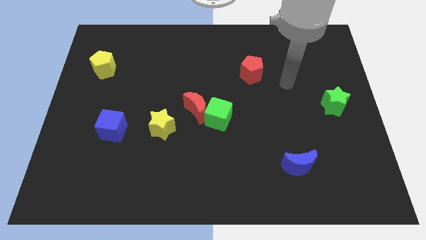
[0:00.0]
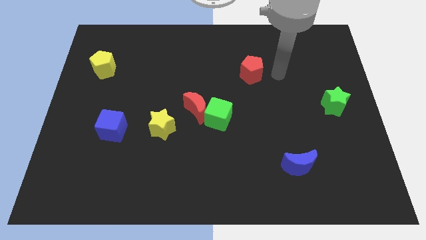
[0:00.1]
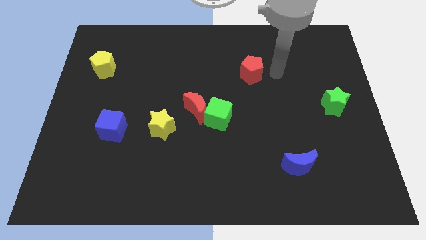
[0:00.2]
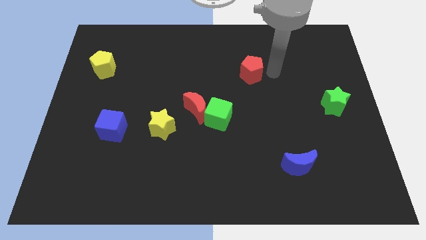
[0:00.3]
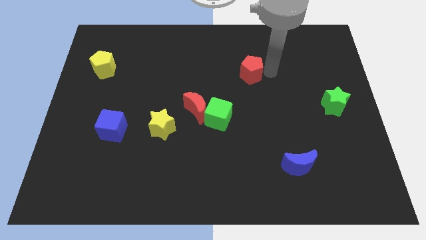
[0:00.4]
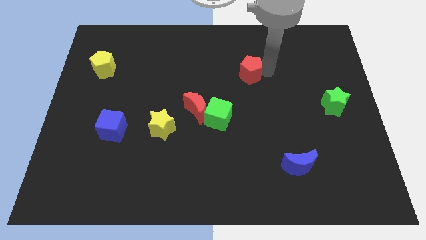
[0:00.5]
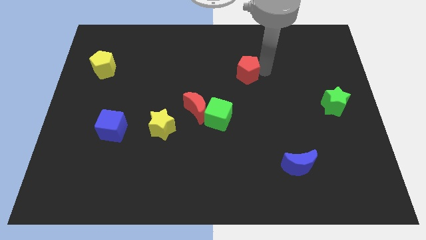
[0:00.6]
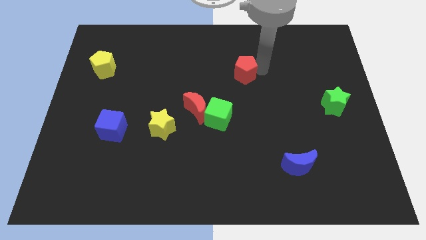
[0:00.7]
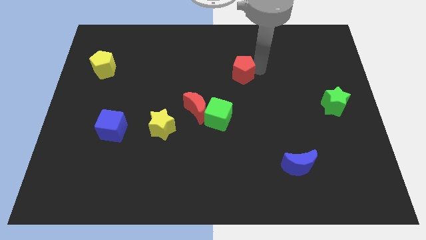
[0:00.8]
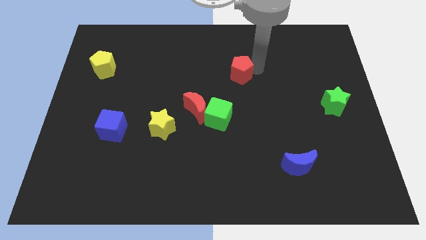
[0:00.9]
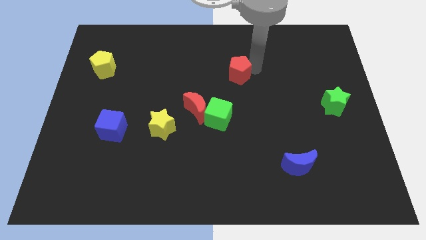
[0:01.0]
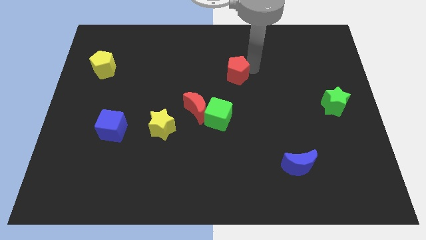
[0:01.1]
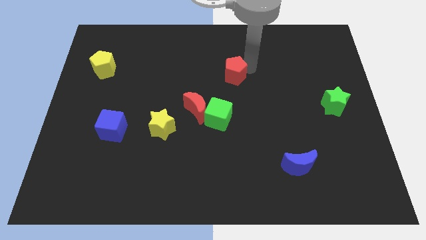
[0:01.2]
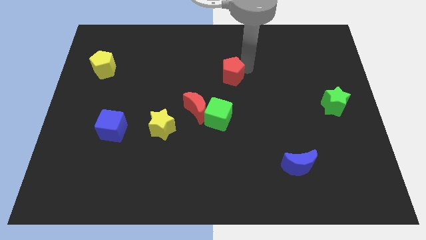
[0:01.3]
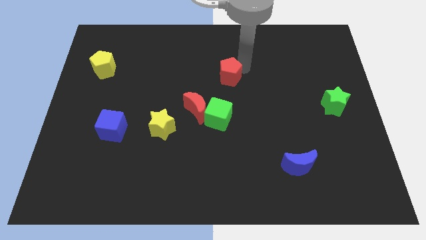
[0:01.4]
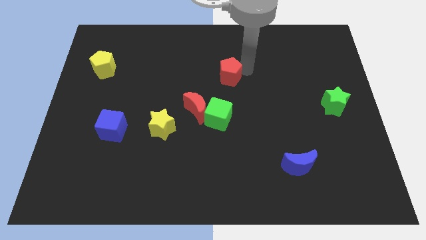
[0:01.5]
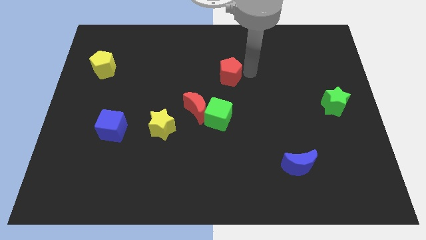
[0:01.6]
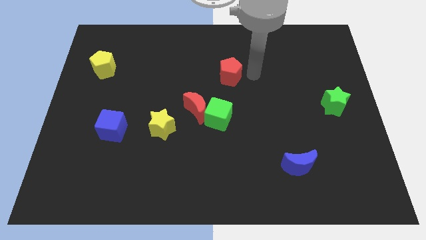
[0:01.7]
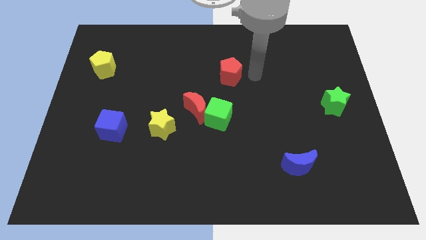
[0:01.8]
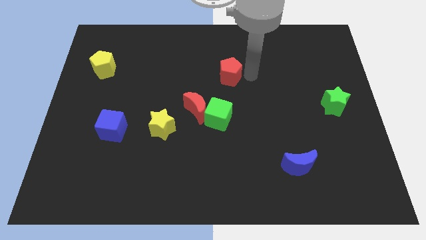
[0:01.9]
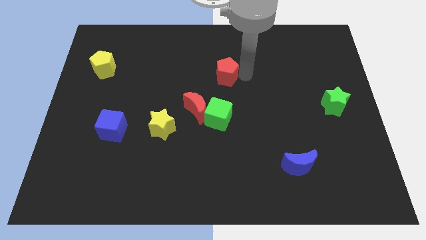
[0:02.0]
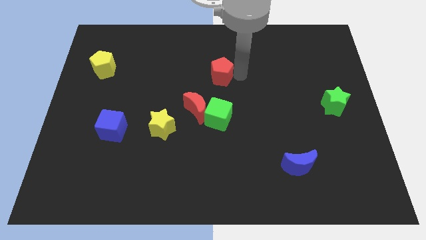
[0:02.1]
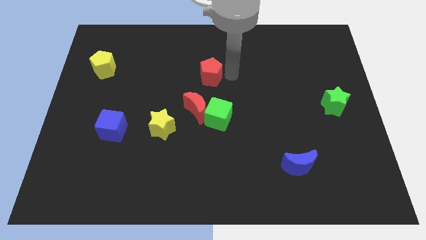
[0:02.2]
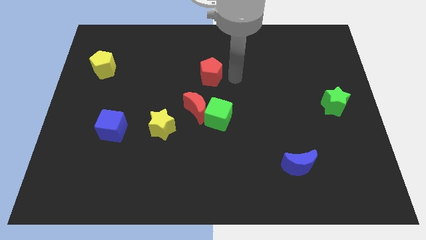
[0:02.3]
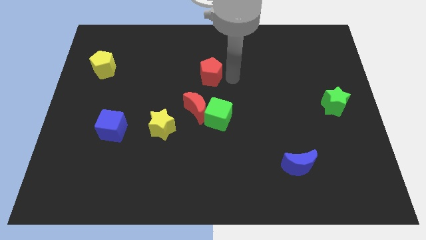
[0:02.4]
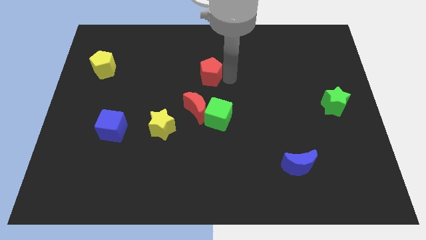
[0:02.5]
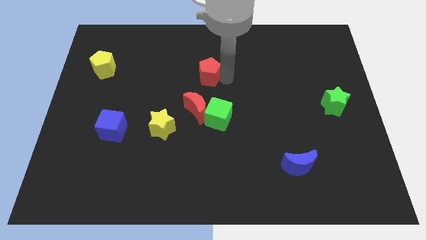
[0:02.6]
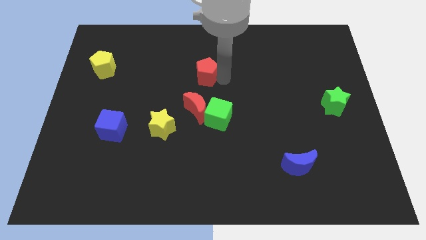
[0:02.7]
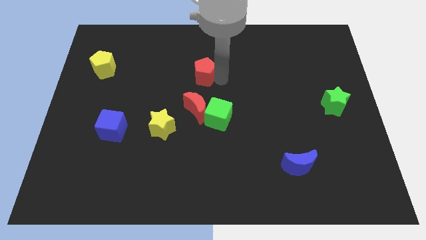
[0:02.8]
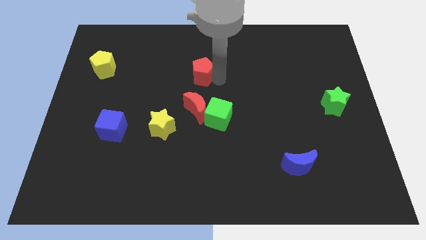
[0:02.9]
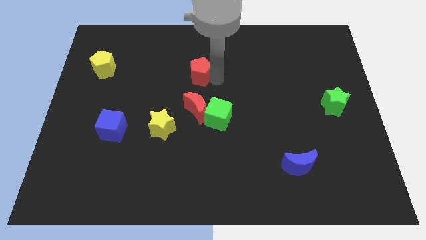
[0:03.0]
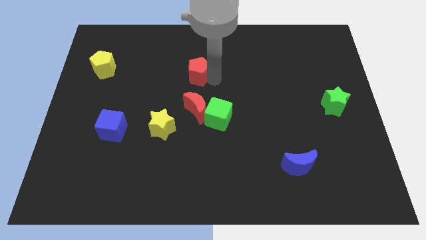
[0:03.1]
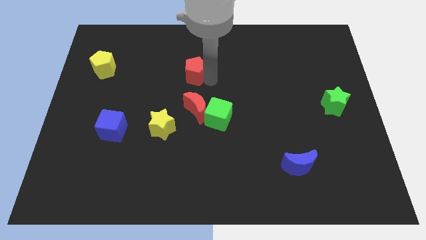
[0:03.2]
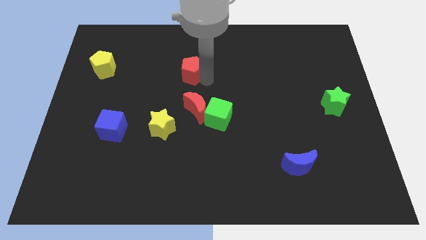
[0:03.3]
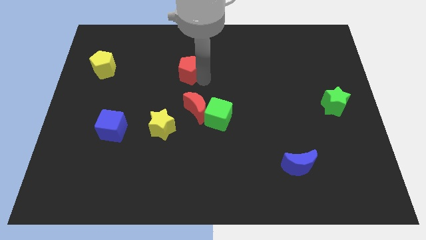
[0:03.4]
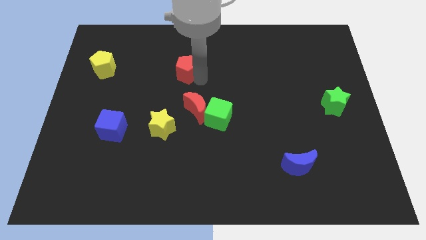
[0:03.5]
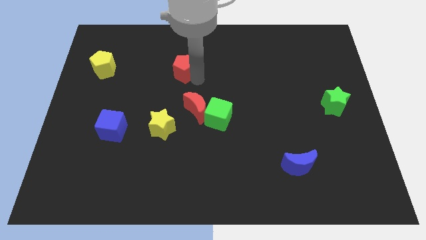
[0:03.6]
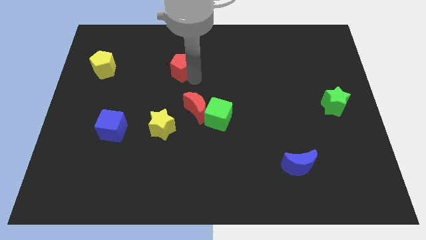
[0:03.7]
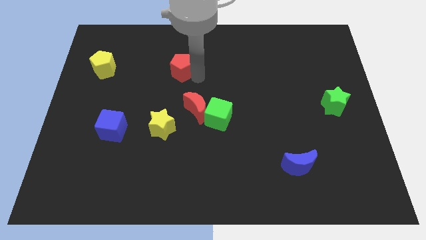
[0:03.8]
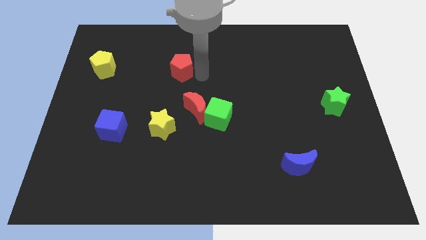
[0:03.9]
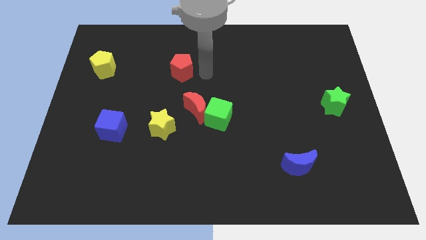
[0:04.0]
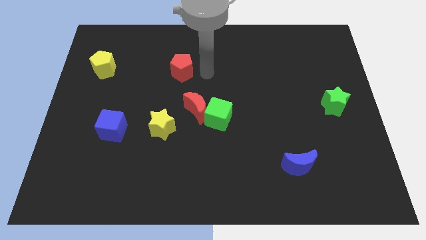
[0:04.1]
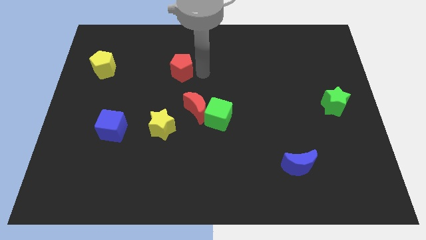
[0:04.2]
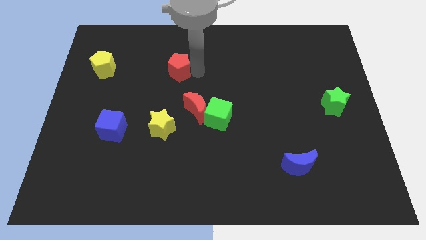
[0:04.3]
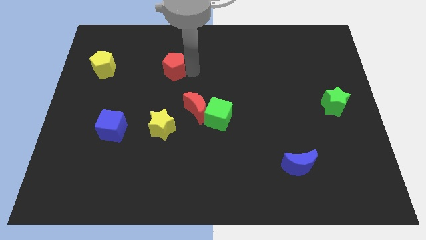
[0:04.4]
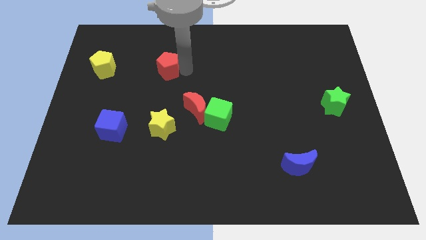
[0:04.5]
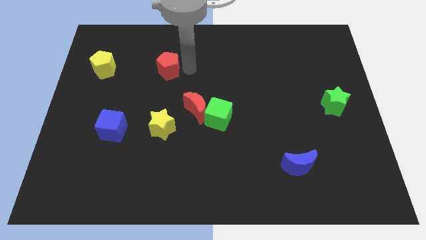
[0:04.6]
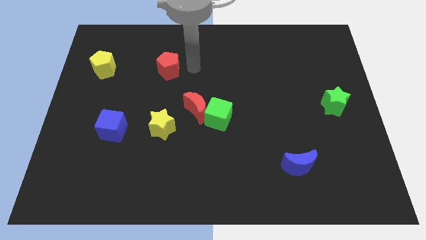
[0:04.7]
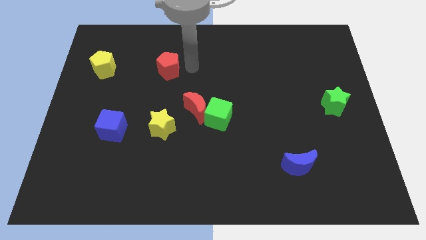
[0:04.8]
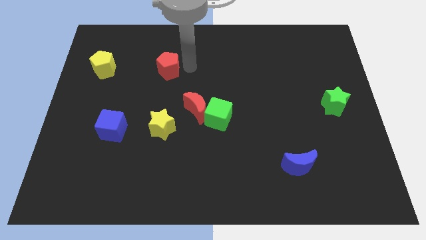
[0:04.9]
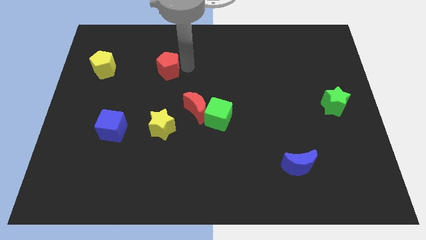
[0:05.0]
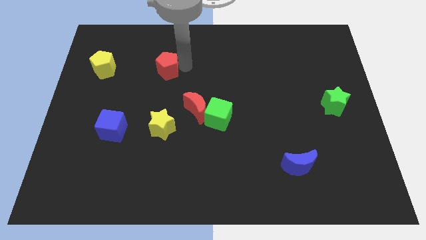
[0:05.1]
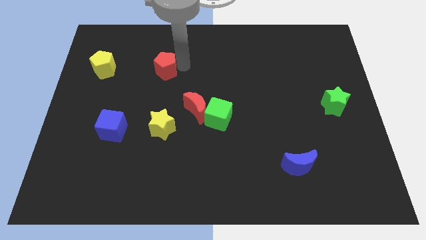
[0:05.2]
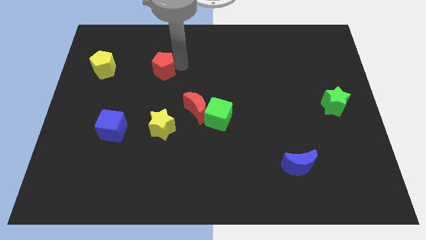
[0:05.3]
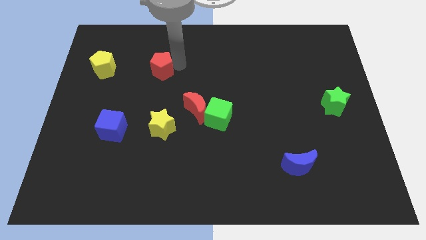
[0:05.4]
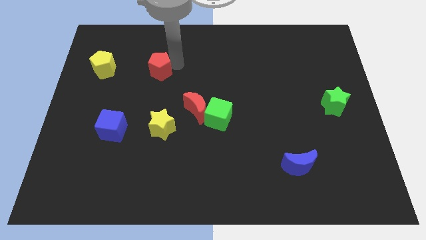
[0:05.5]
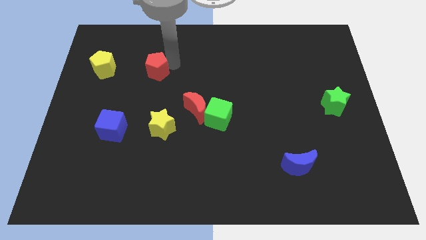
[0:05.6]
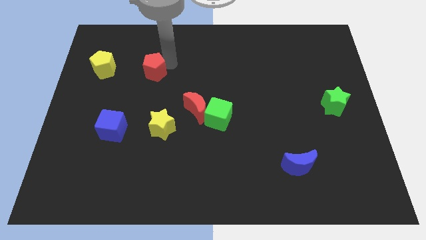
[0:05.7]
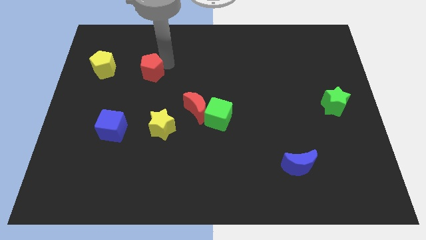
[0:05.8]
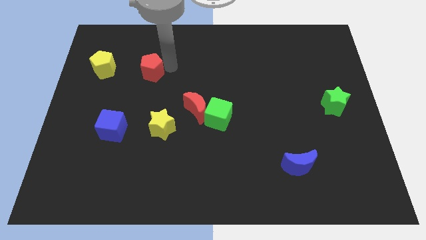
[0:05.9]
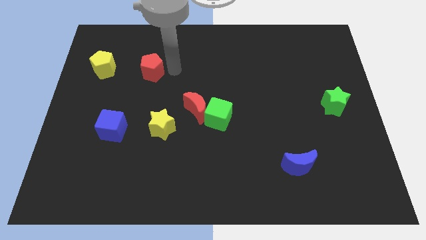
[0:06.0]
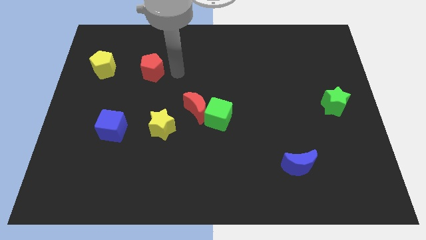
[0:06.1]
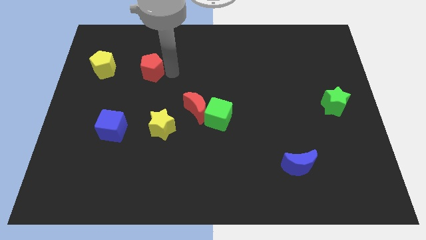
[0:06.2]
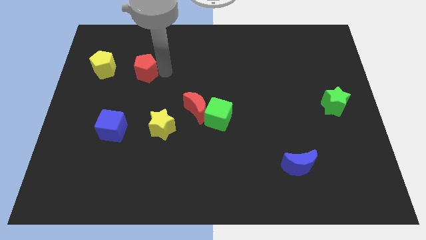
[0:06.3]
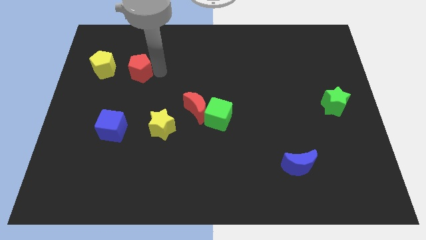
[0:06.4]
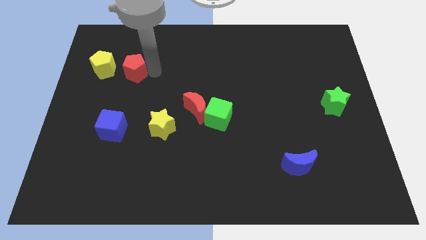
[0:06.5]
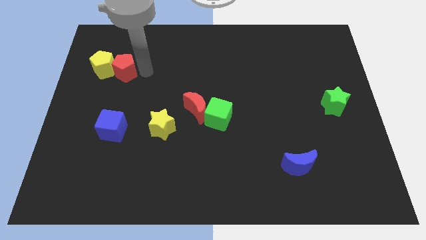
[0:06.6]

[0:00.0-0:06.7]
slide the red pentagon close to the yellow pentagon

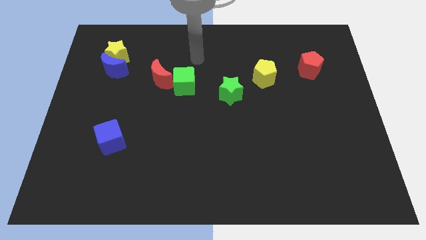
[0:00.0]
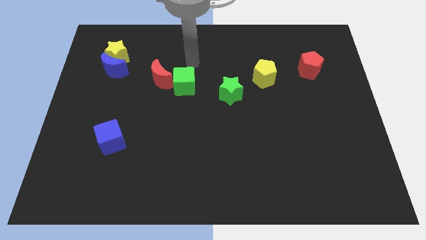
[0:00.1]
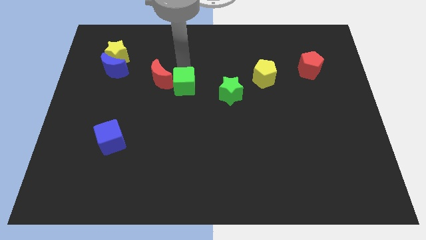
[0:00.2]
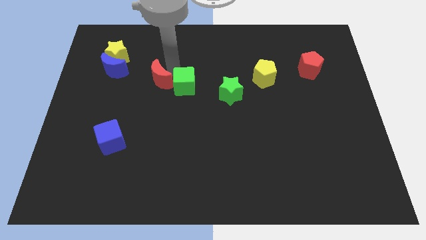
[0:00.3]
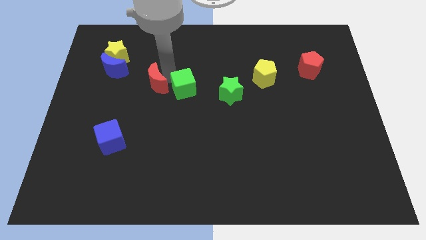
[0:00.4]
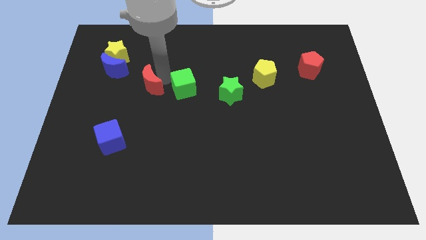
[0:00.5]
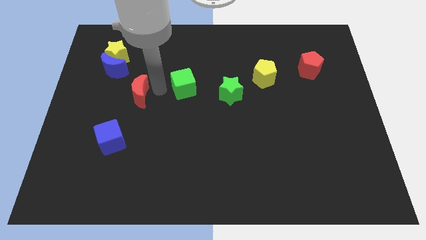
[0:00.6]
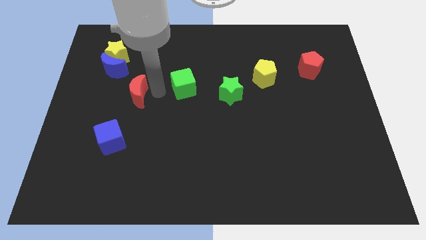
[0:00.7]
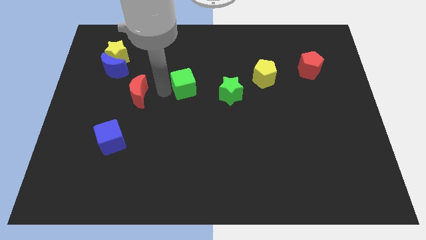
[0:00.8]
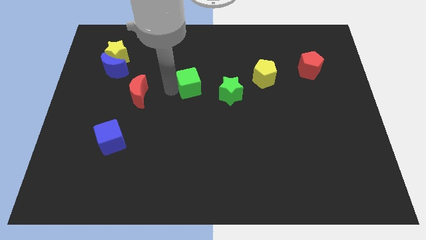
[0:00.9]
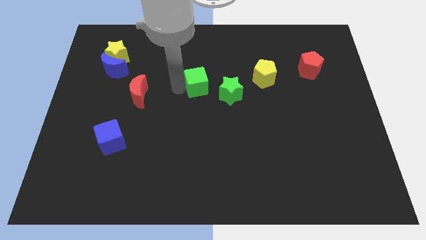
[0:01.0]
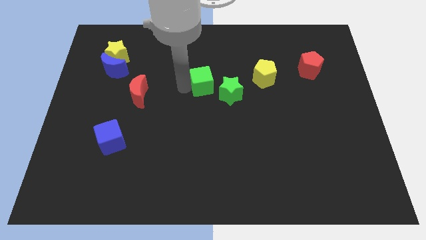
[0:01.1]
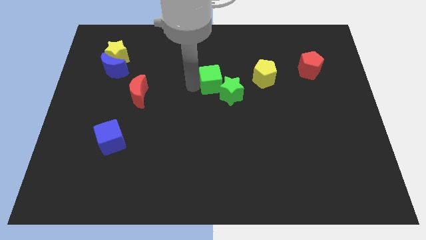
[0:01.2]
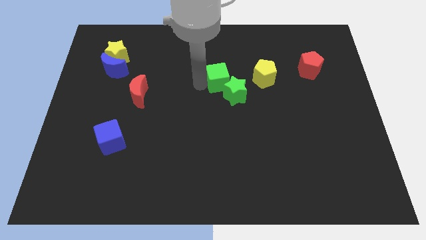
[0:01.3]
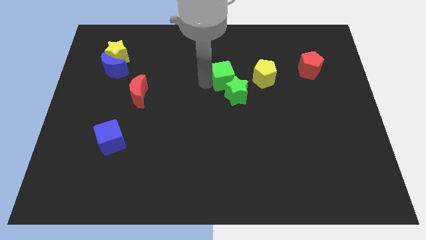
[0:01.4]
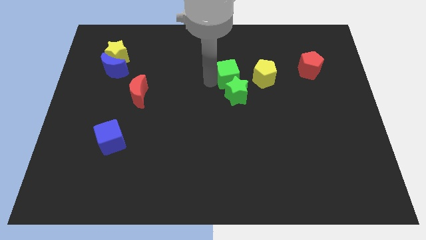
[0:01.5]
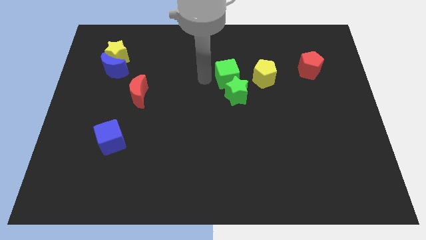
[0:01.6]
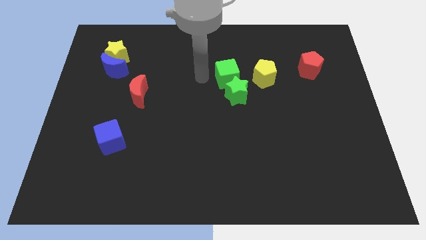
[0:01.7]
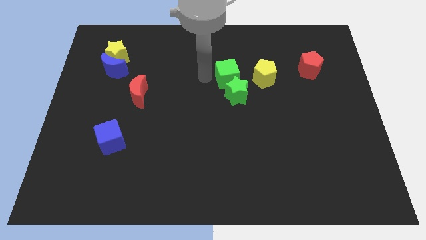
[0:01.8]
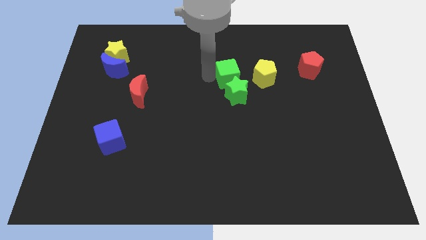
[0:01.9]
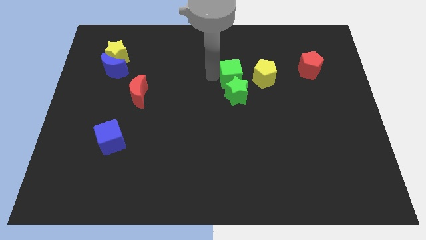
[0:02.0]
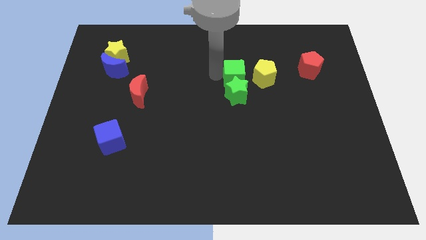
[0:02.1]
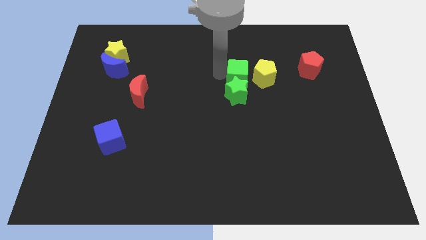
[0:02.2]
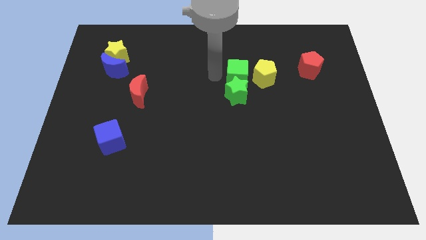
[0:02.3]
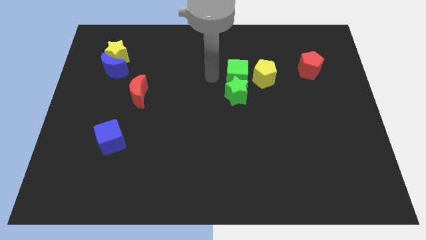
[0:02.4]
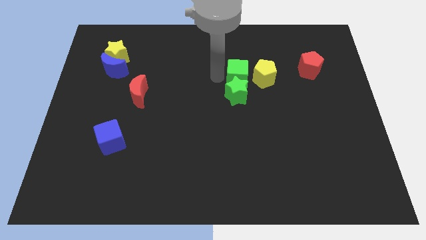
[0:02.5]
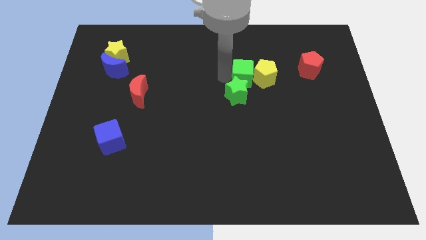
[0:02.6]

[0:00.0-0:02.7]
slide the green cube next to the yellow pentagon
